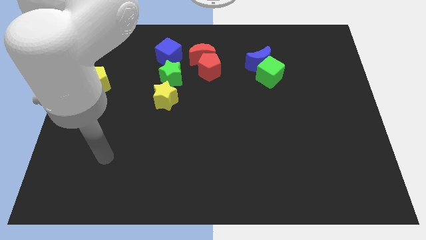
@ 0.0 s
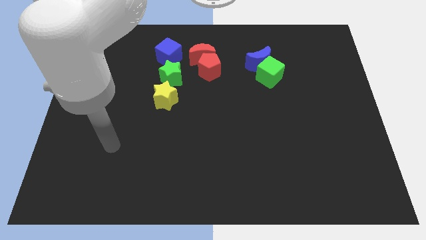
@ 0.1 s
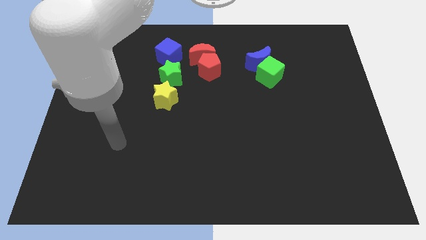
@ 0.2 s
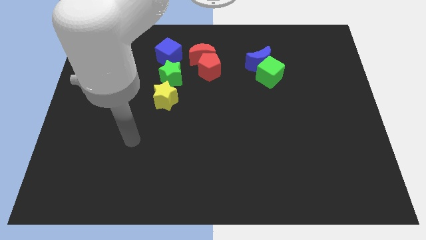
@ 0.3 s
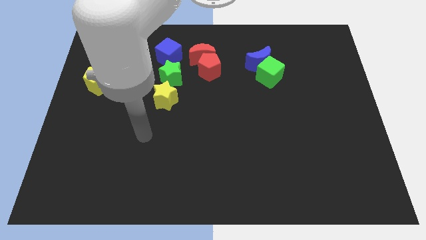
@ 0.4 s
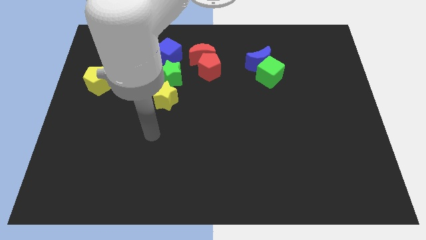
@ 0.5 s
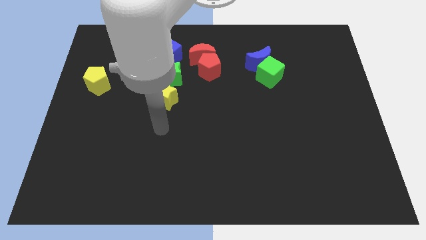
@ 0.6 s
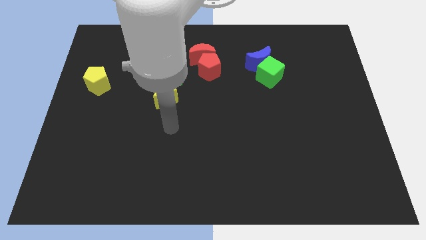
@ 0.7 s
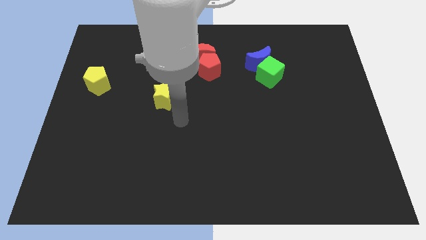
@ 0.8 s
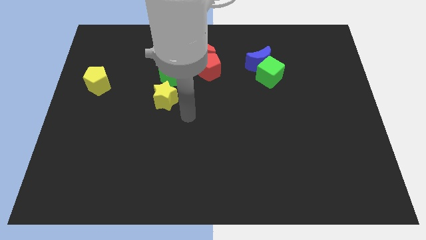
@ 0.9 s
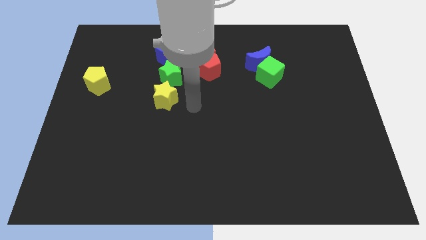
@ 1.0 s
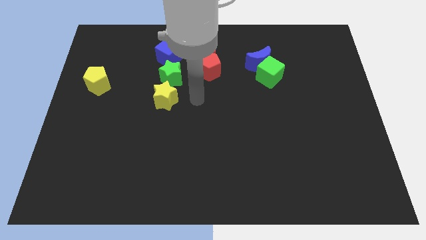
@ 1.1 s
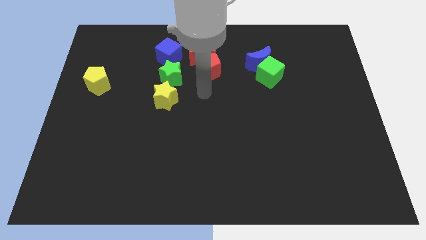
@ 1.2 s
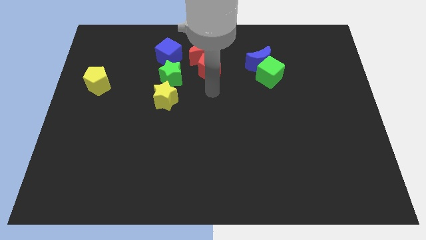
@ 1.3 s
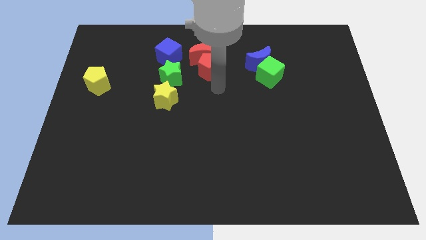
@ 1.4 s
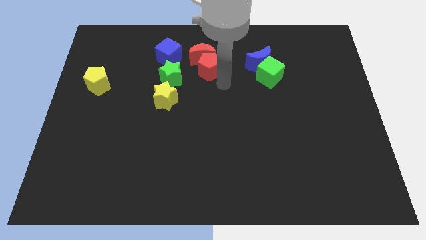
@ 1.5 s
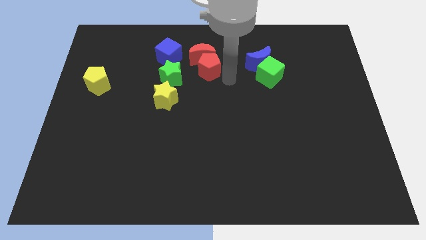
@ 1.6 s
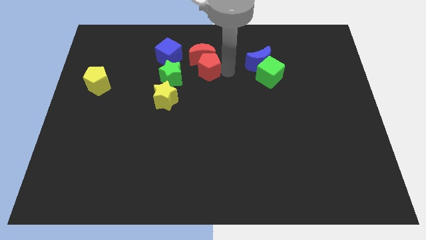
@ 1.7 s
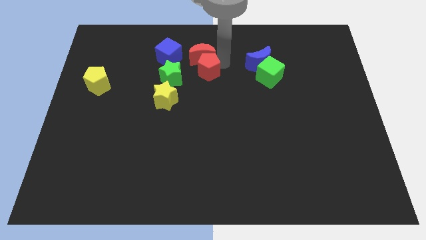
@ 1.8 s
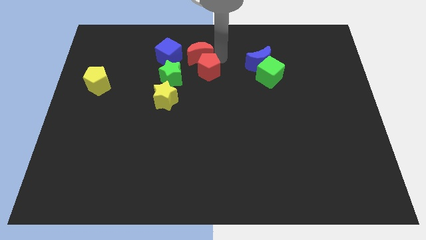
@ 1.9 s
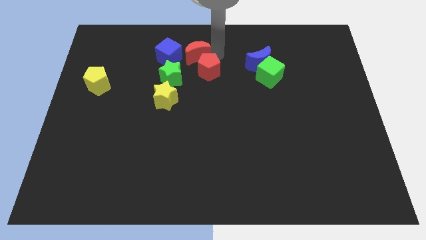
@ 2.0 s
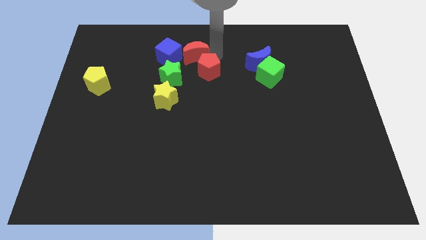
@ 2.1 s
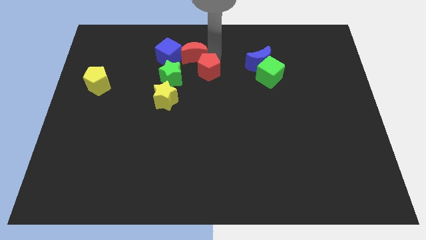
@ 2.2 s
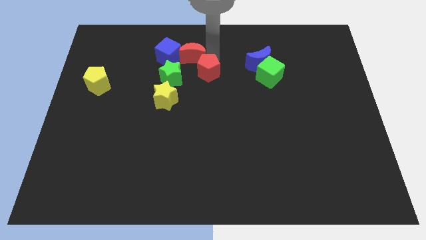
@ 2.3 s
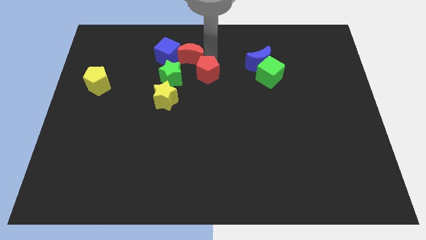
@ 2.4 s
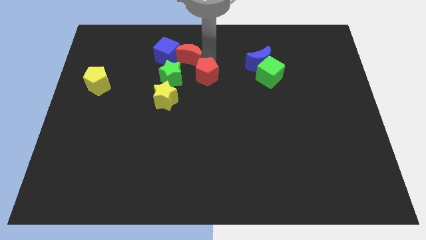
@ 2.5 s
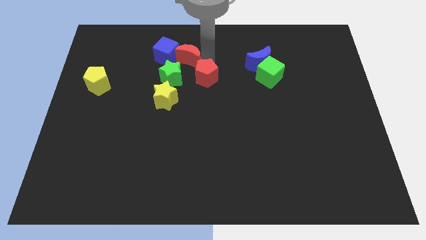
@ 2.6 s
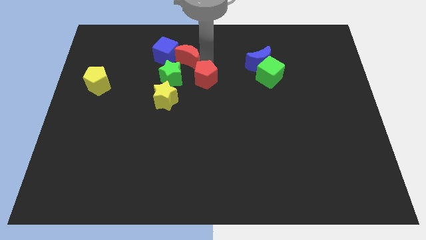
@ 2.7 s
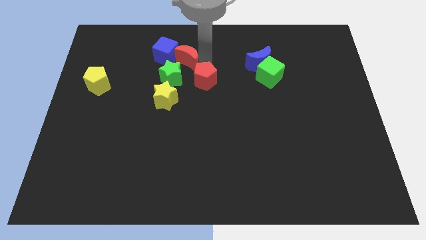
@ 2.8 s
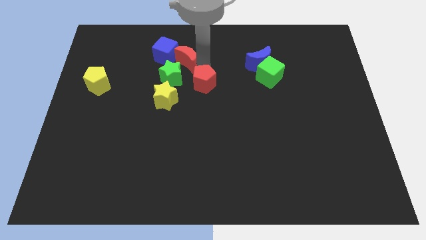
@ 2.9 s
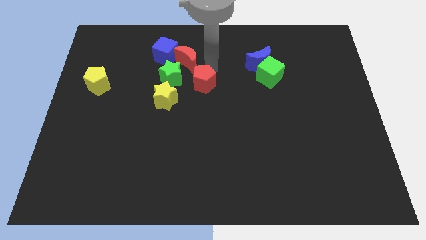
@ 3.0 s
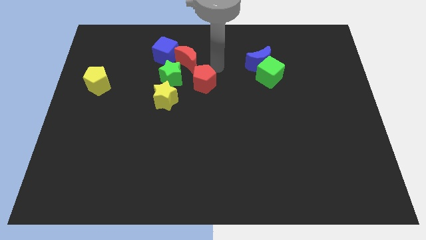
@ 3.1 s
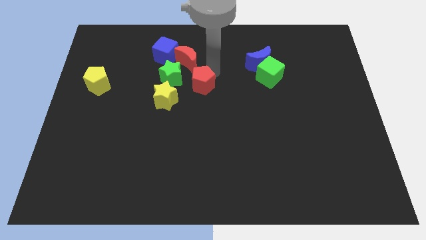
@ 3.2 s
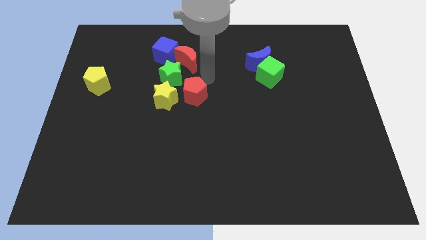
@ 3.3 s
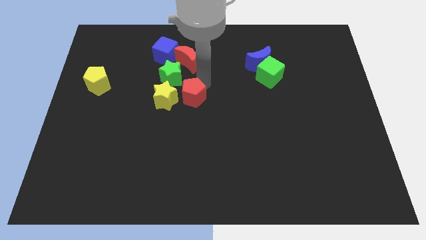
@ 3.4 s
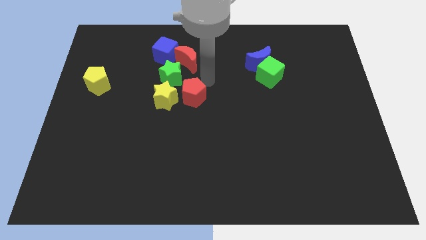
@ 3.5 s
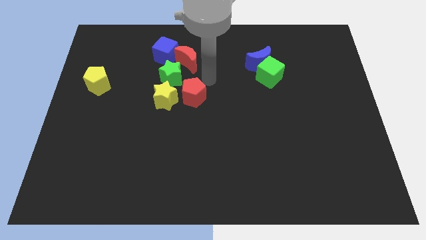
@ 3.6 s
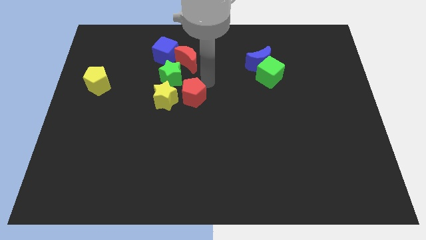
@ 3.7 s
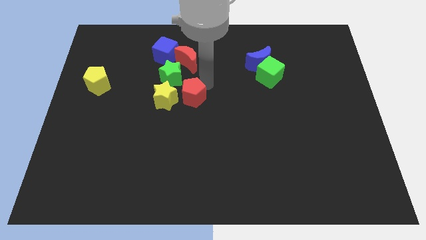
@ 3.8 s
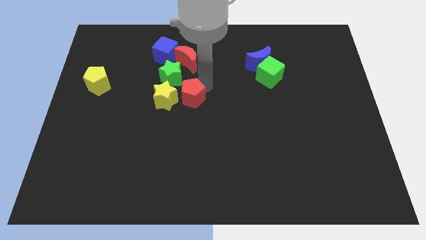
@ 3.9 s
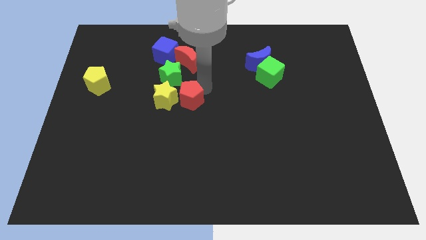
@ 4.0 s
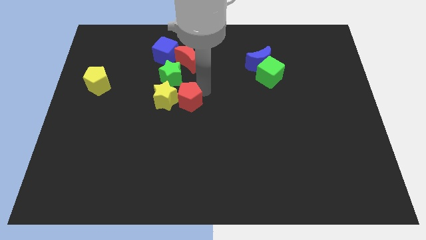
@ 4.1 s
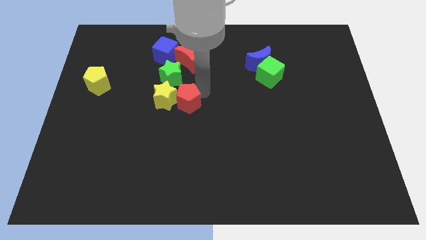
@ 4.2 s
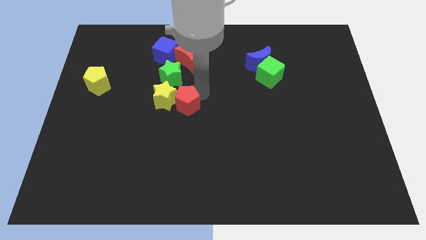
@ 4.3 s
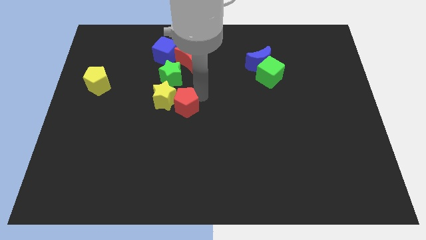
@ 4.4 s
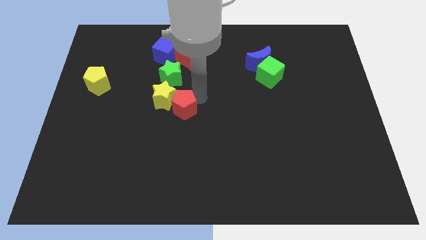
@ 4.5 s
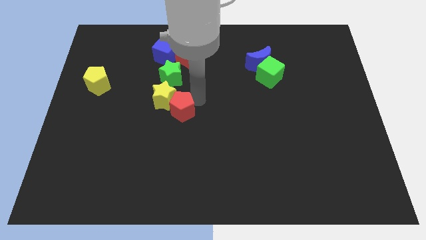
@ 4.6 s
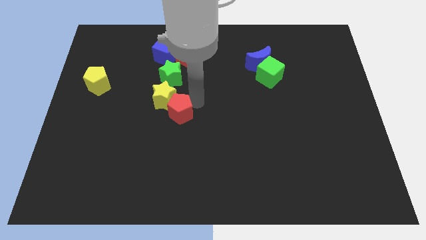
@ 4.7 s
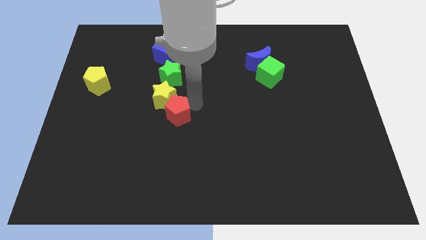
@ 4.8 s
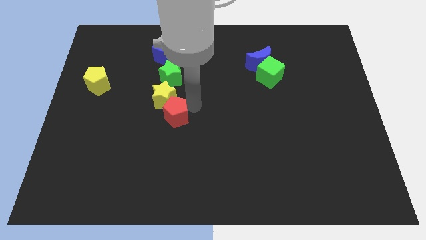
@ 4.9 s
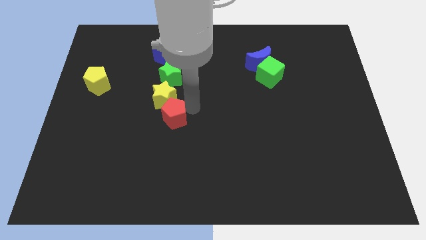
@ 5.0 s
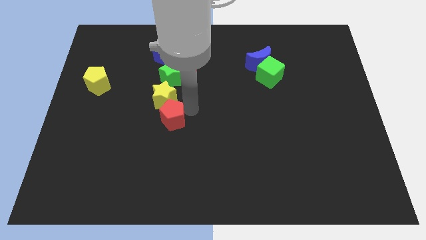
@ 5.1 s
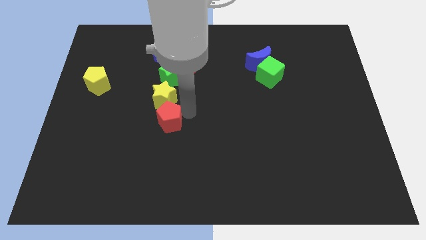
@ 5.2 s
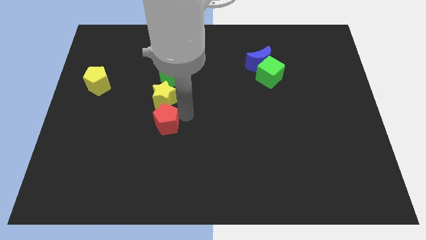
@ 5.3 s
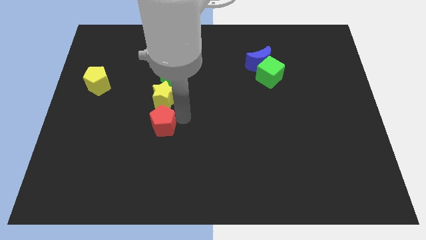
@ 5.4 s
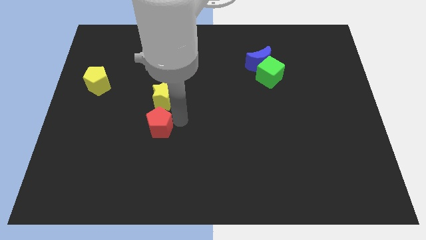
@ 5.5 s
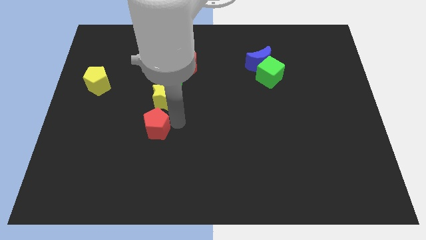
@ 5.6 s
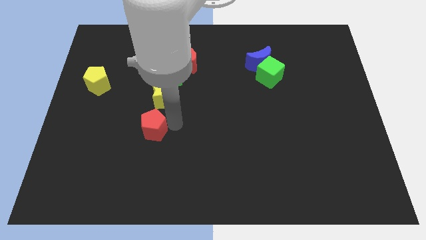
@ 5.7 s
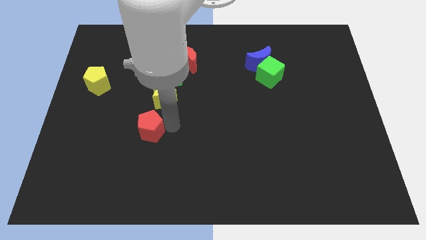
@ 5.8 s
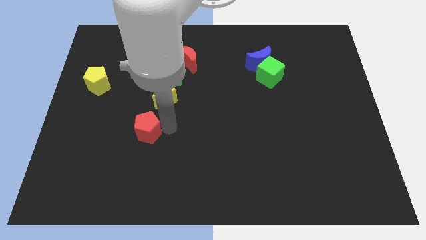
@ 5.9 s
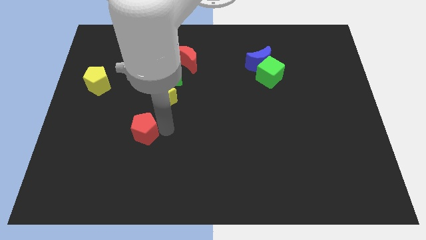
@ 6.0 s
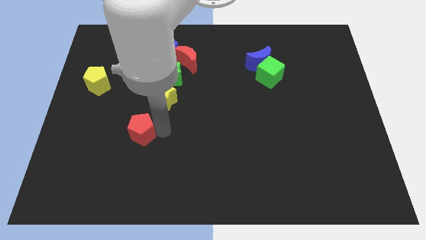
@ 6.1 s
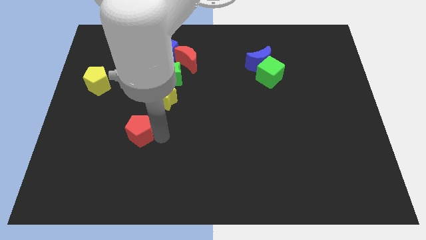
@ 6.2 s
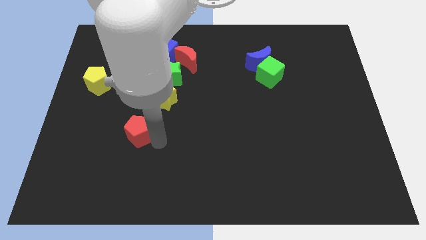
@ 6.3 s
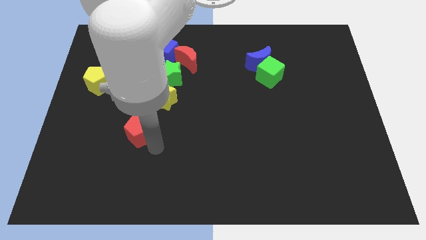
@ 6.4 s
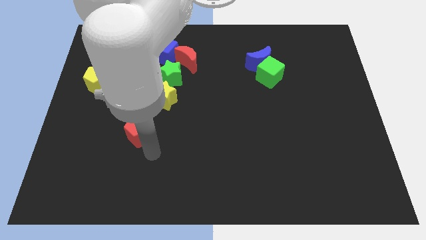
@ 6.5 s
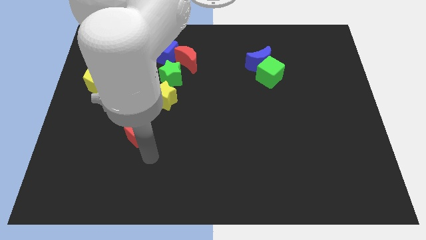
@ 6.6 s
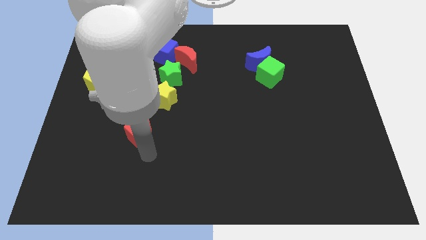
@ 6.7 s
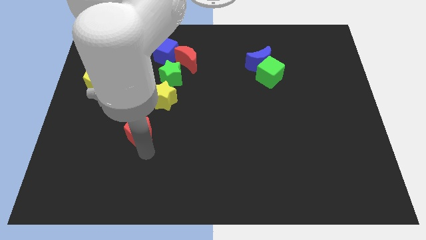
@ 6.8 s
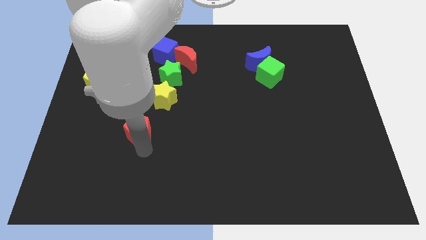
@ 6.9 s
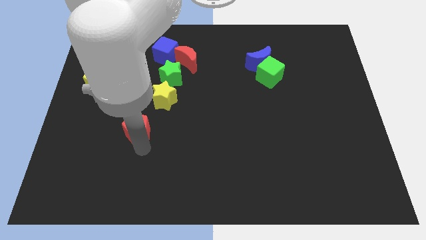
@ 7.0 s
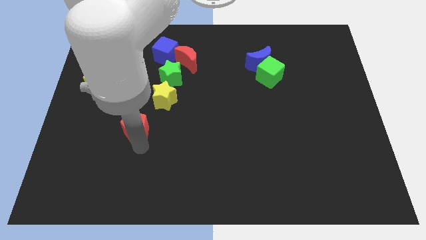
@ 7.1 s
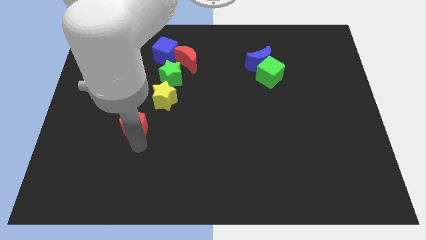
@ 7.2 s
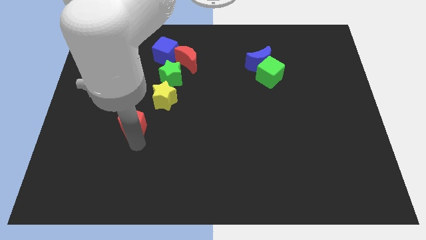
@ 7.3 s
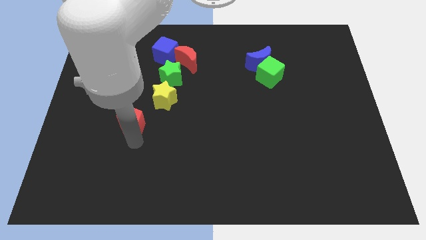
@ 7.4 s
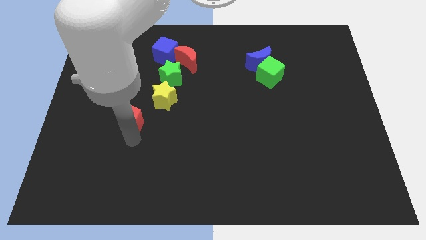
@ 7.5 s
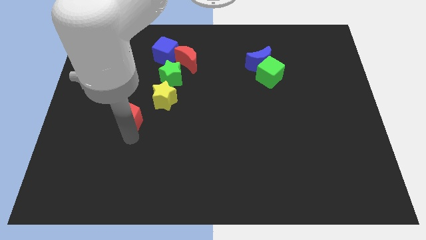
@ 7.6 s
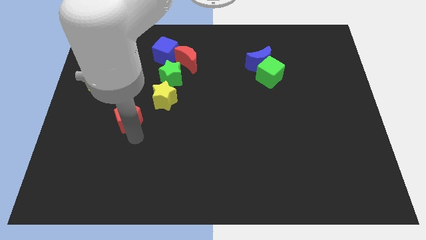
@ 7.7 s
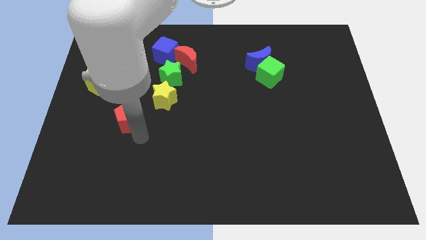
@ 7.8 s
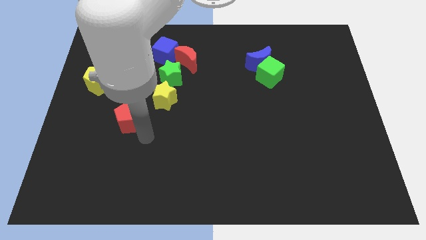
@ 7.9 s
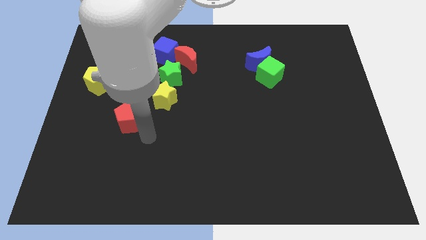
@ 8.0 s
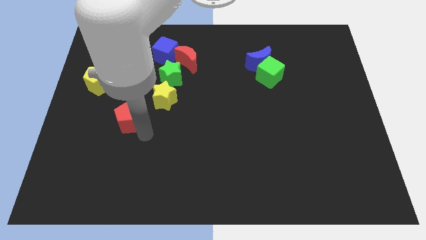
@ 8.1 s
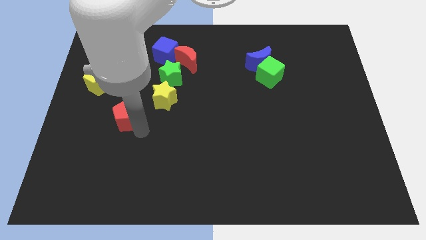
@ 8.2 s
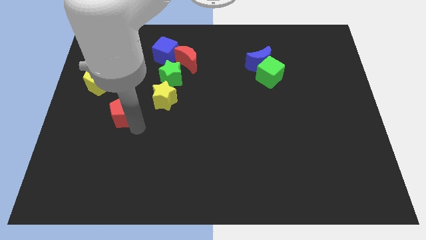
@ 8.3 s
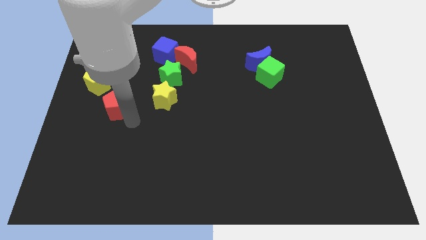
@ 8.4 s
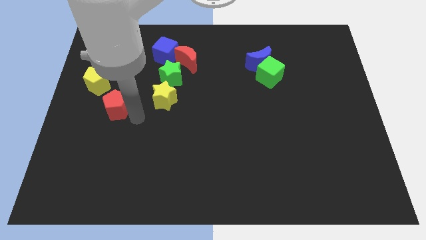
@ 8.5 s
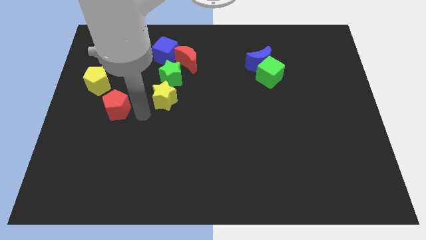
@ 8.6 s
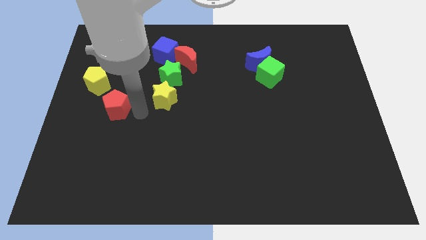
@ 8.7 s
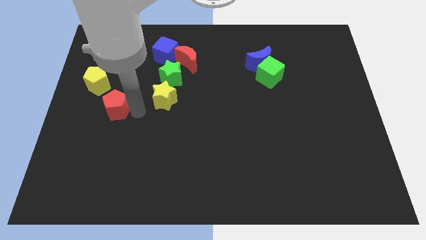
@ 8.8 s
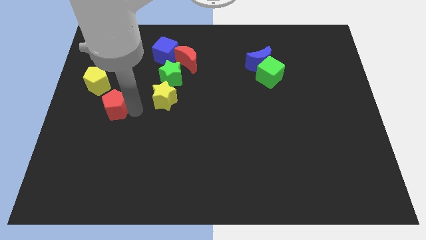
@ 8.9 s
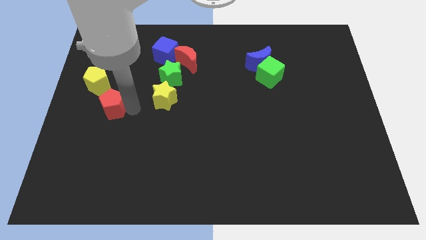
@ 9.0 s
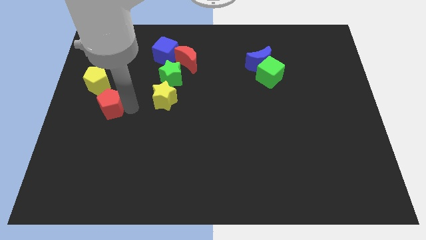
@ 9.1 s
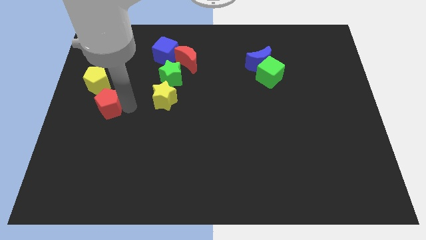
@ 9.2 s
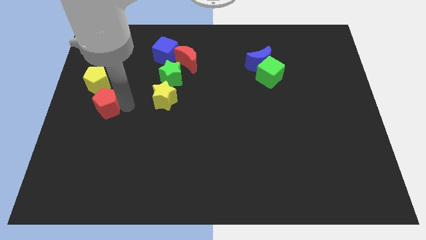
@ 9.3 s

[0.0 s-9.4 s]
push the red pentagon to the left side
